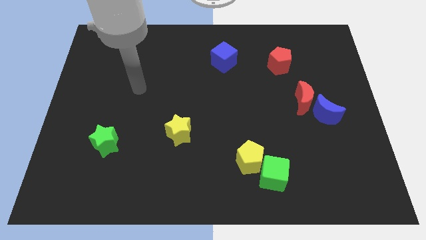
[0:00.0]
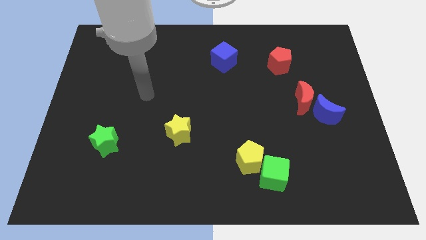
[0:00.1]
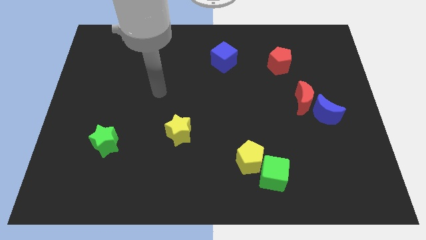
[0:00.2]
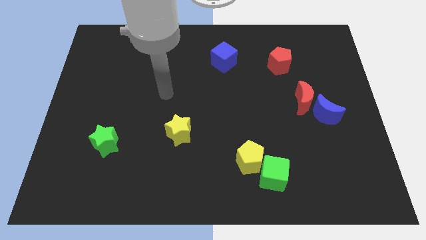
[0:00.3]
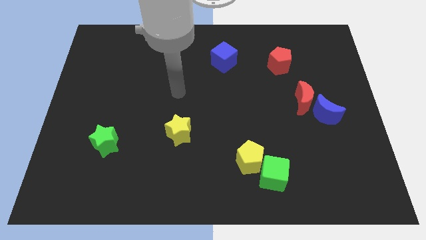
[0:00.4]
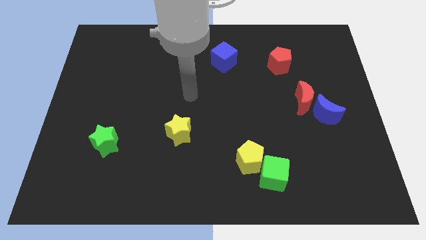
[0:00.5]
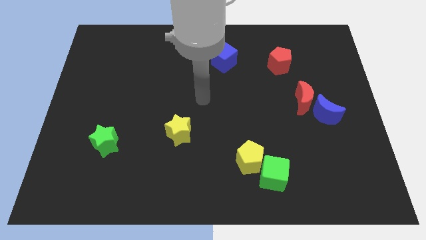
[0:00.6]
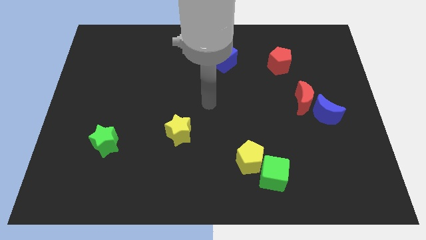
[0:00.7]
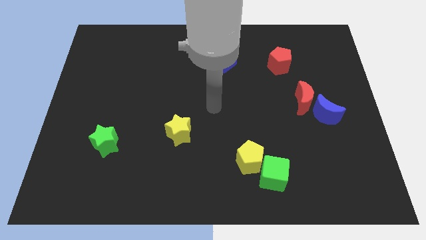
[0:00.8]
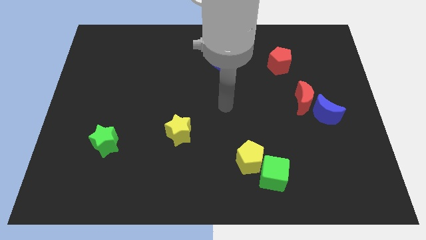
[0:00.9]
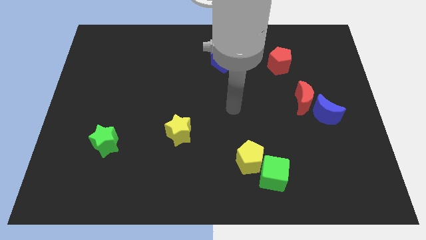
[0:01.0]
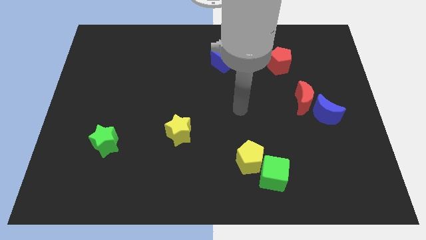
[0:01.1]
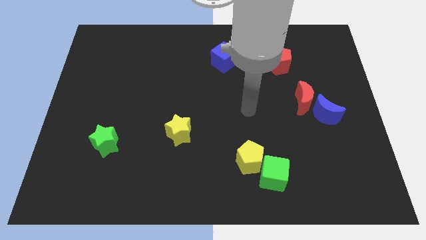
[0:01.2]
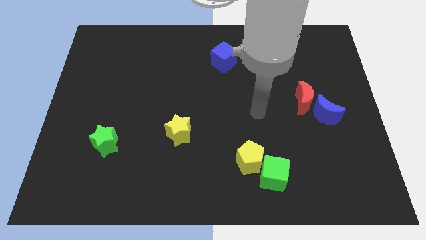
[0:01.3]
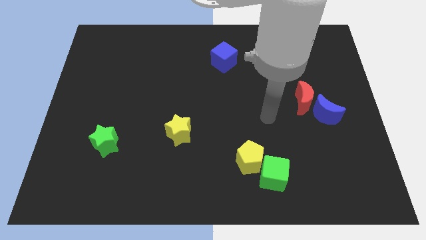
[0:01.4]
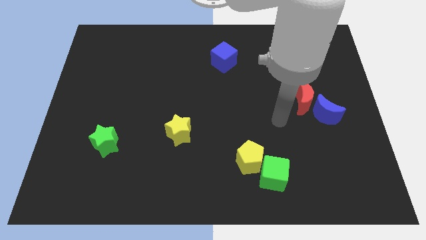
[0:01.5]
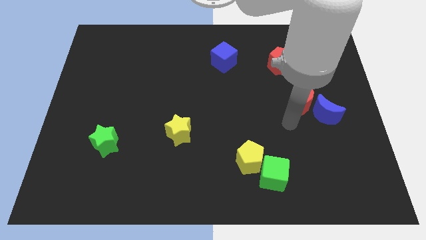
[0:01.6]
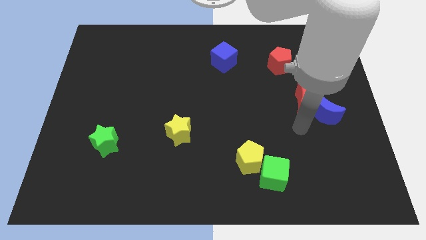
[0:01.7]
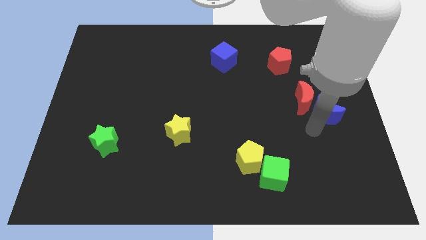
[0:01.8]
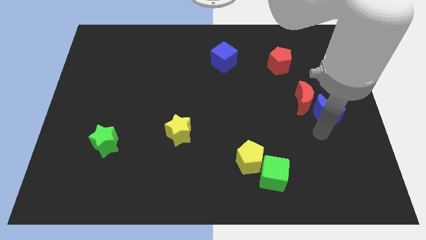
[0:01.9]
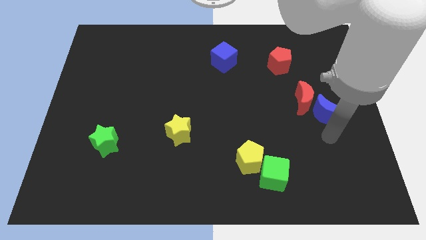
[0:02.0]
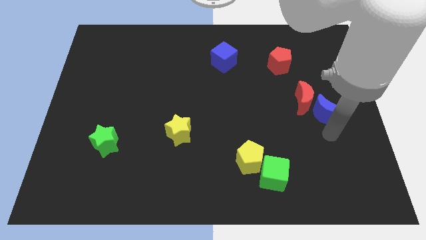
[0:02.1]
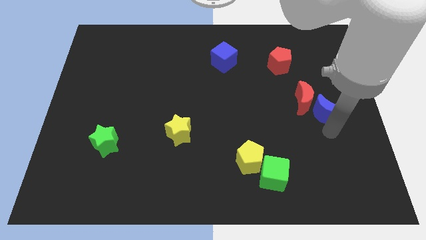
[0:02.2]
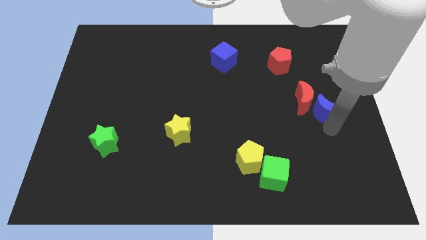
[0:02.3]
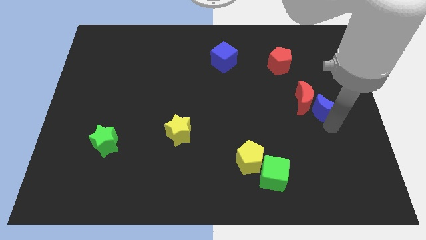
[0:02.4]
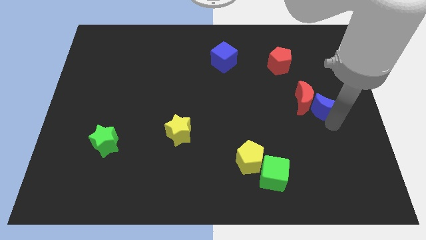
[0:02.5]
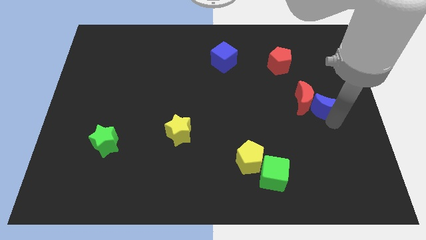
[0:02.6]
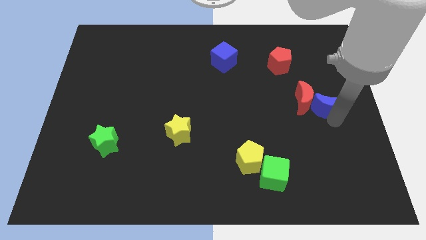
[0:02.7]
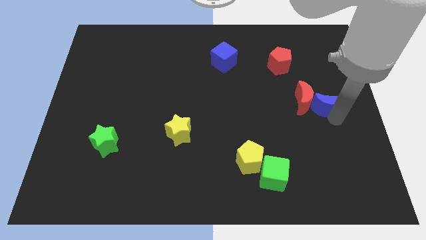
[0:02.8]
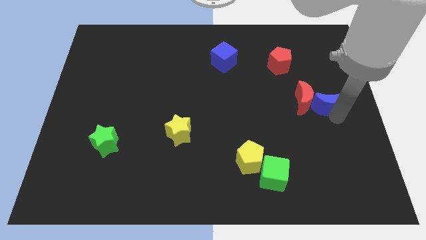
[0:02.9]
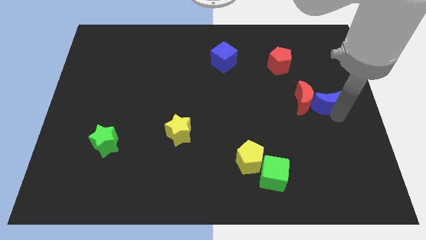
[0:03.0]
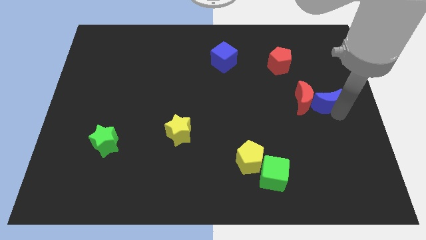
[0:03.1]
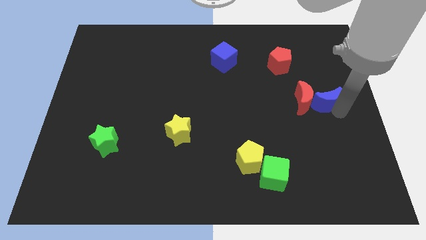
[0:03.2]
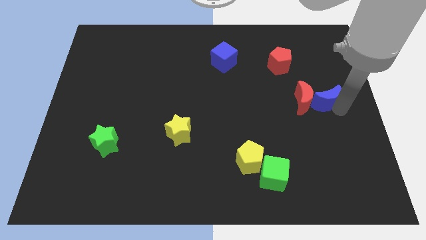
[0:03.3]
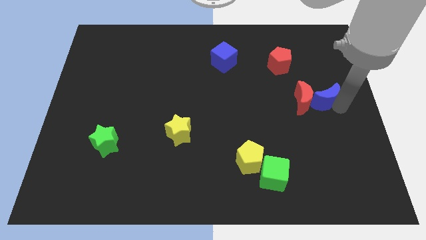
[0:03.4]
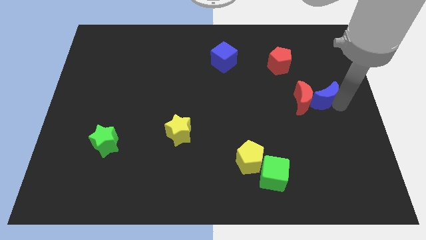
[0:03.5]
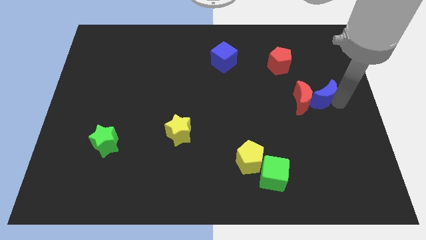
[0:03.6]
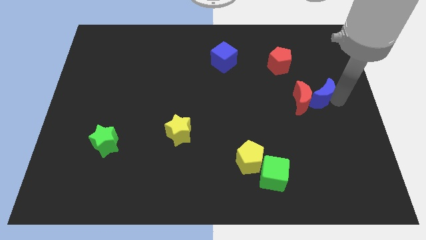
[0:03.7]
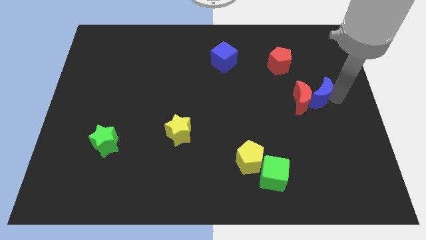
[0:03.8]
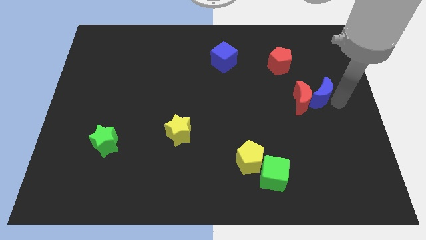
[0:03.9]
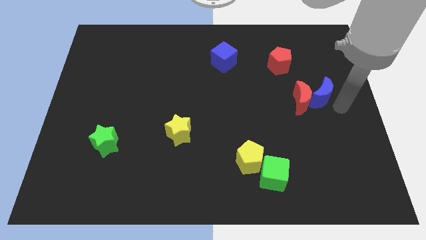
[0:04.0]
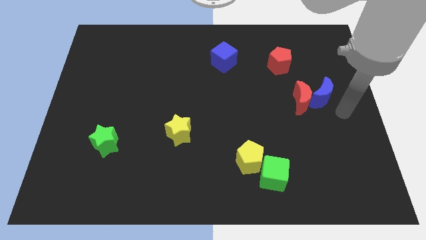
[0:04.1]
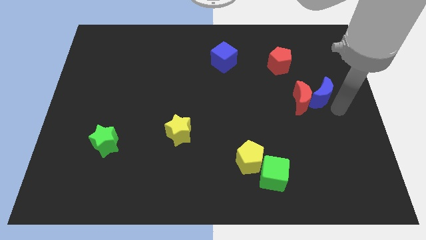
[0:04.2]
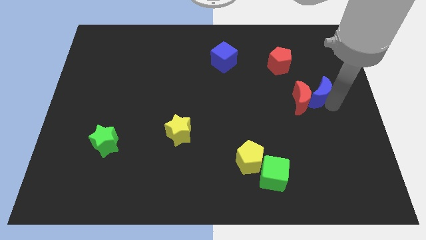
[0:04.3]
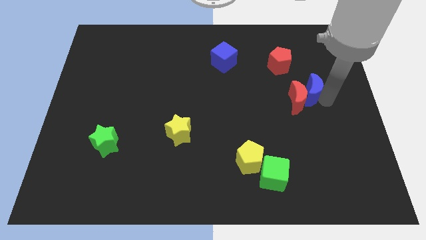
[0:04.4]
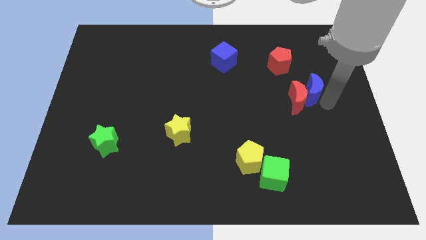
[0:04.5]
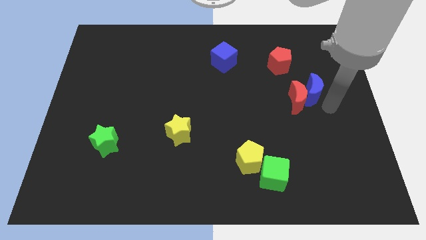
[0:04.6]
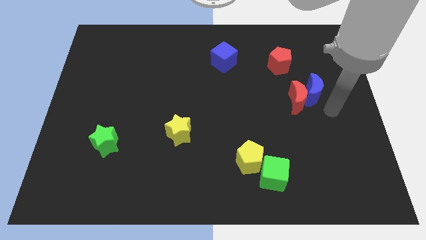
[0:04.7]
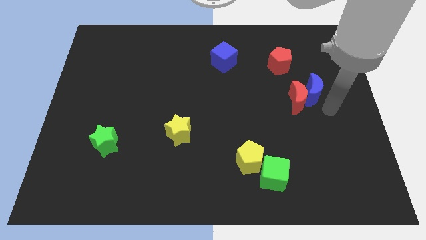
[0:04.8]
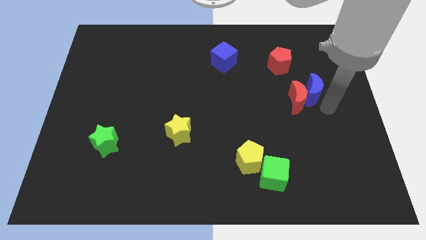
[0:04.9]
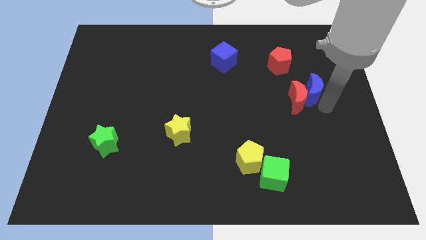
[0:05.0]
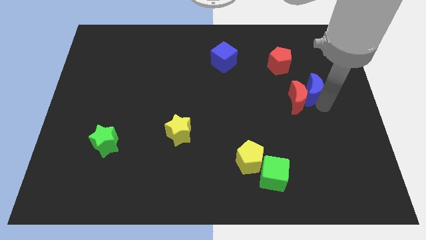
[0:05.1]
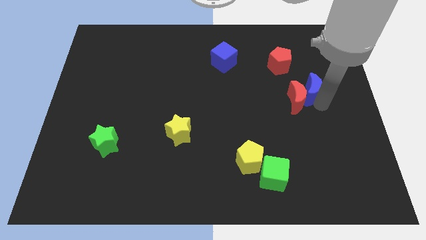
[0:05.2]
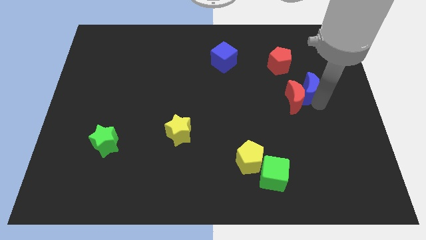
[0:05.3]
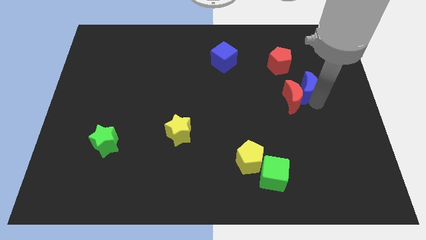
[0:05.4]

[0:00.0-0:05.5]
push the blue moon a little bit diagonally up and left

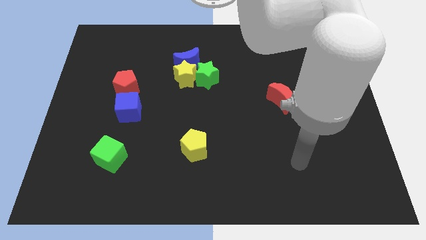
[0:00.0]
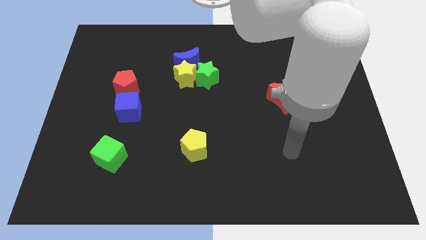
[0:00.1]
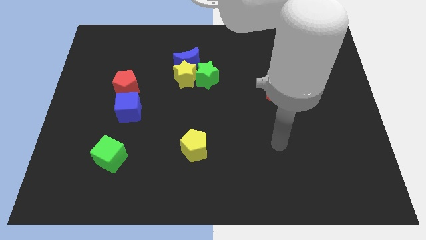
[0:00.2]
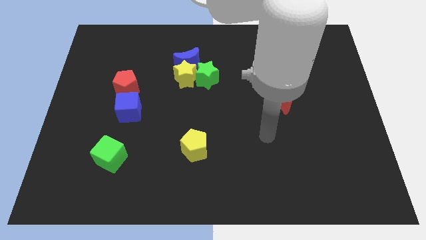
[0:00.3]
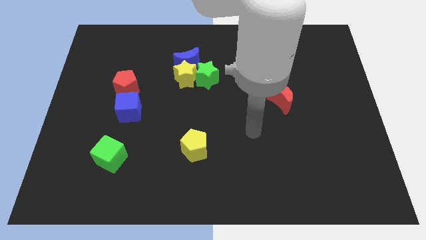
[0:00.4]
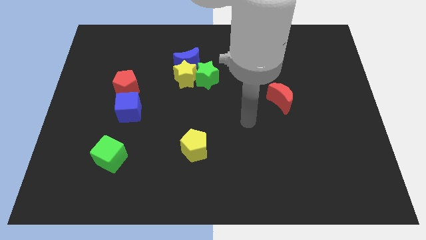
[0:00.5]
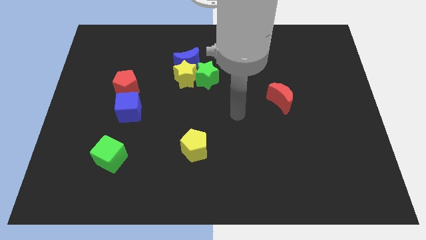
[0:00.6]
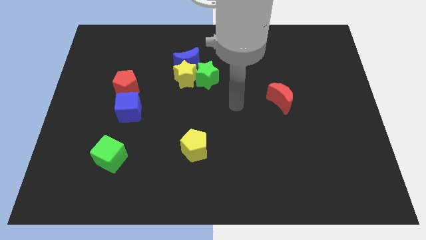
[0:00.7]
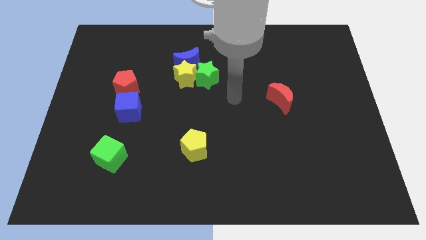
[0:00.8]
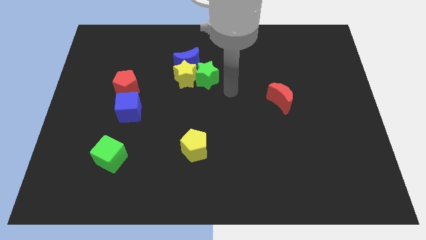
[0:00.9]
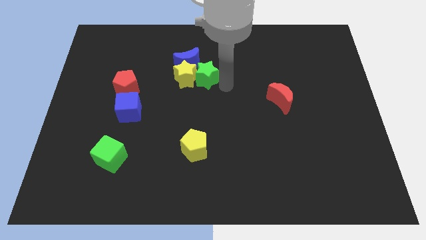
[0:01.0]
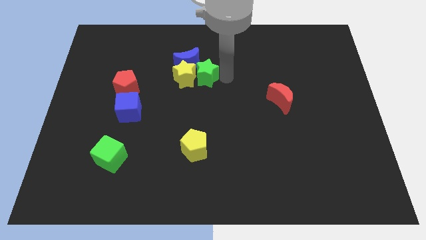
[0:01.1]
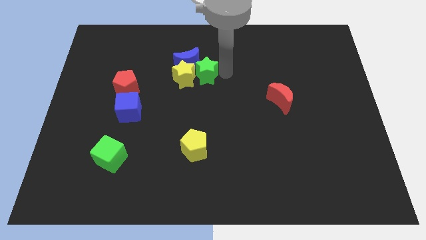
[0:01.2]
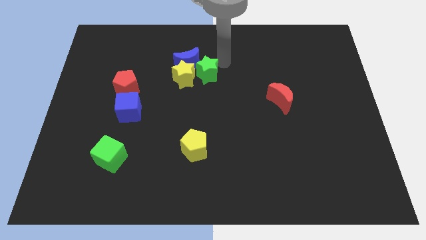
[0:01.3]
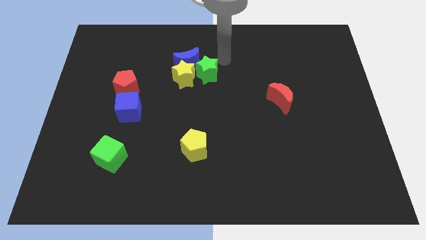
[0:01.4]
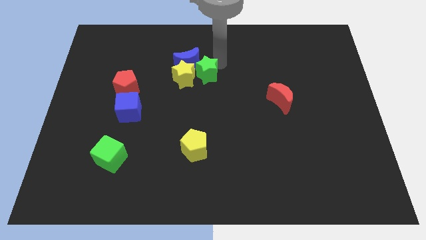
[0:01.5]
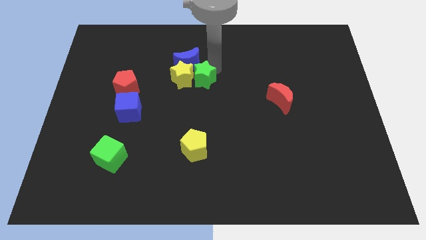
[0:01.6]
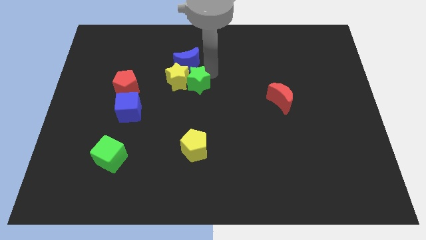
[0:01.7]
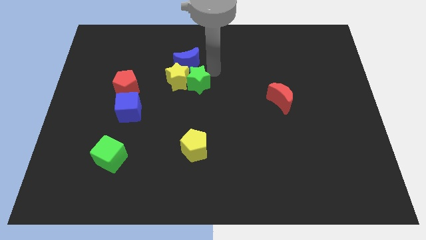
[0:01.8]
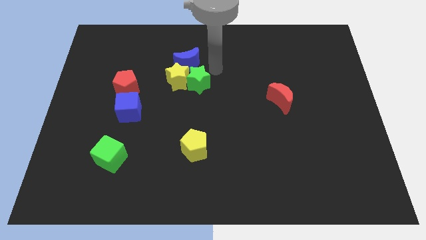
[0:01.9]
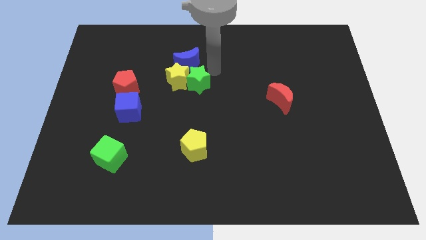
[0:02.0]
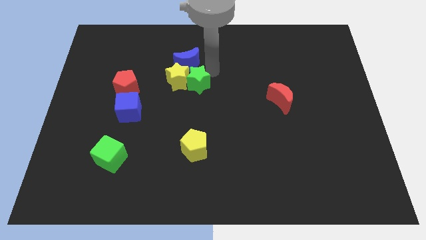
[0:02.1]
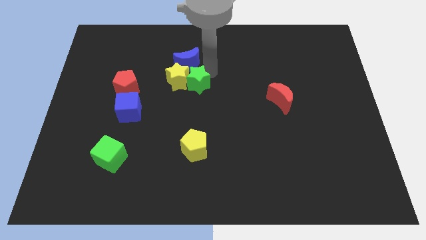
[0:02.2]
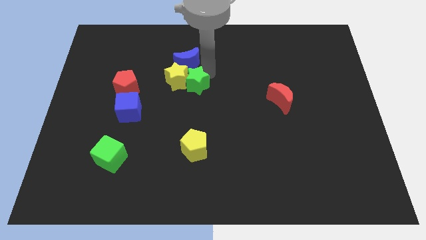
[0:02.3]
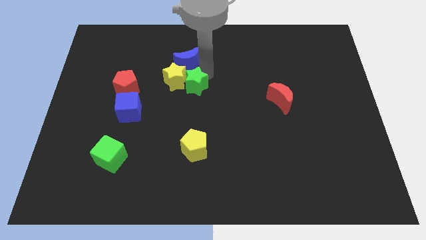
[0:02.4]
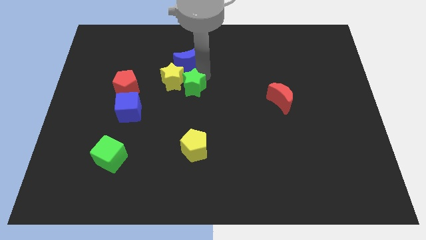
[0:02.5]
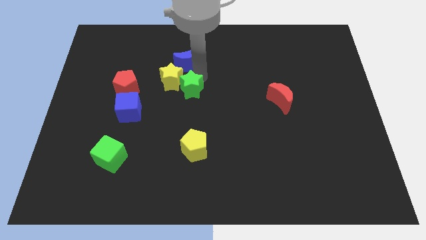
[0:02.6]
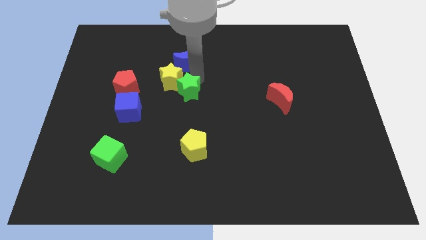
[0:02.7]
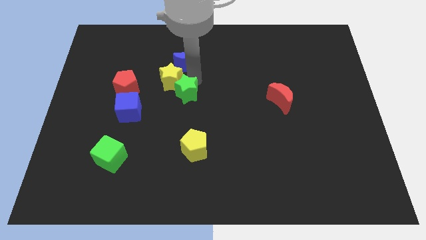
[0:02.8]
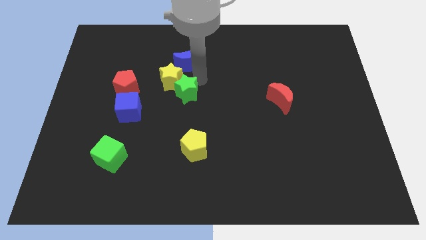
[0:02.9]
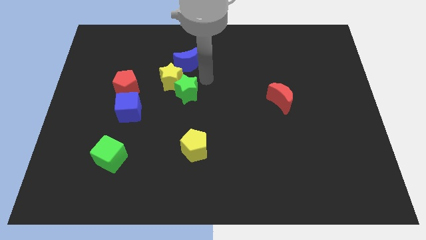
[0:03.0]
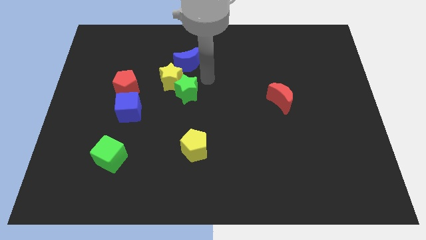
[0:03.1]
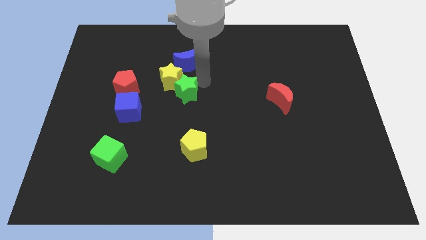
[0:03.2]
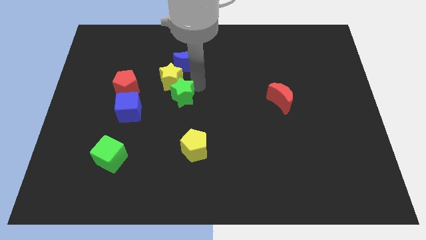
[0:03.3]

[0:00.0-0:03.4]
push the green star downwards and then to the left a little
